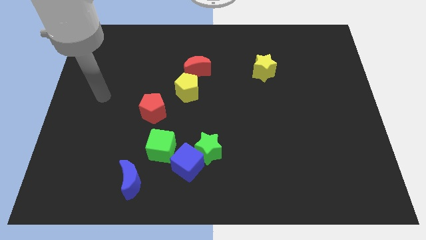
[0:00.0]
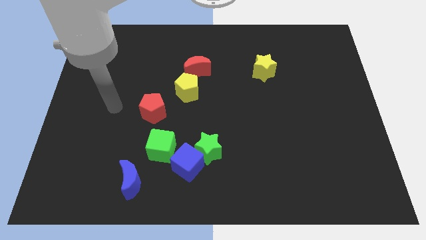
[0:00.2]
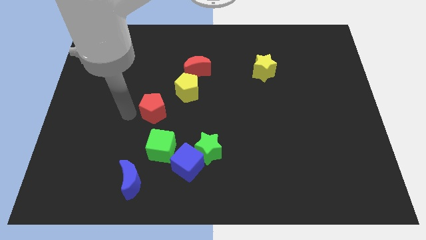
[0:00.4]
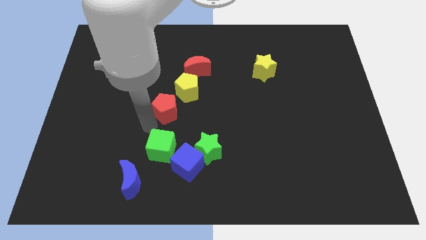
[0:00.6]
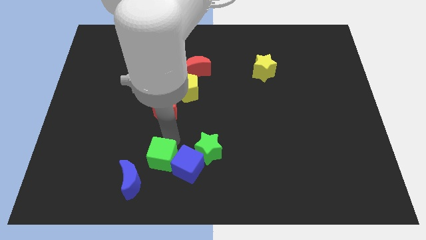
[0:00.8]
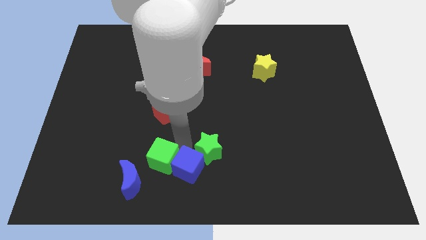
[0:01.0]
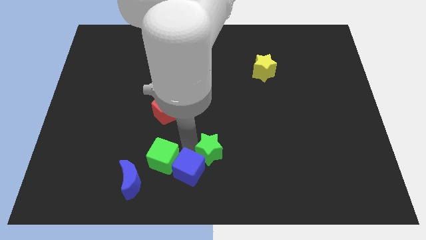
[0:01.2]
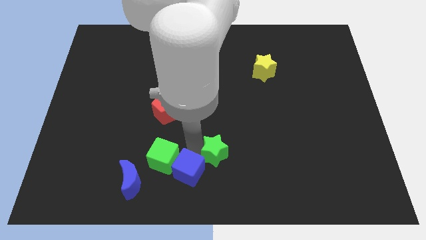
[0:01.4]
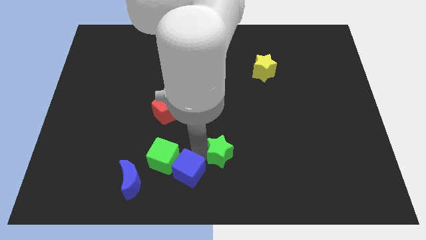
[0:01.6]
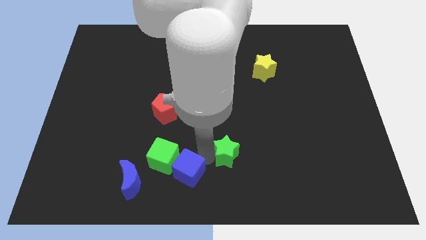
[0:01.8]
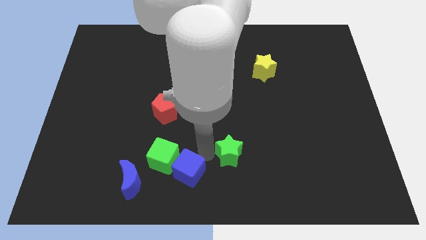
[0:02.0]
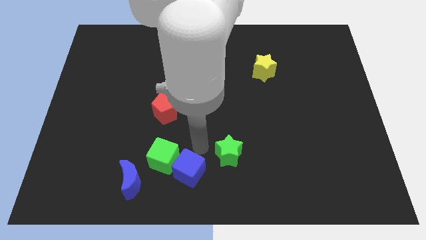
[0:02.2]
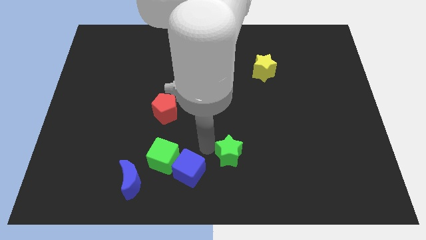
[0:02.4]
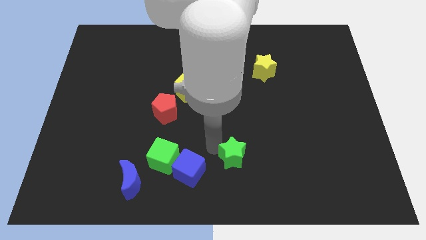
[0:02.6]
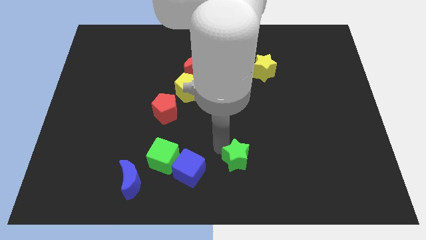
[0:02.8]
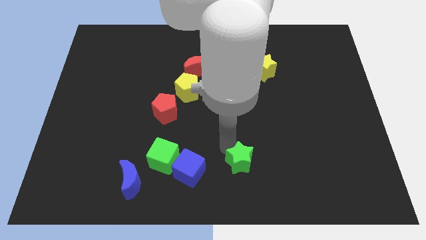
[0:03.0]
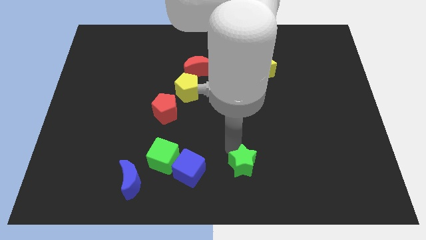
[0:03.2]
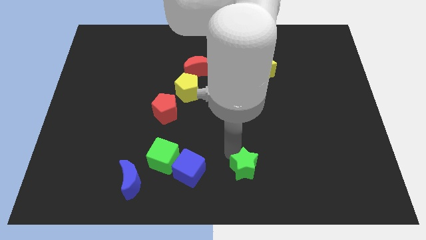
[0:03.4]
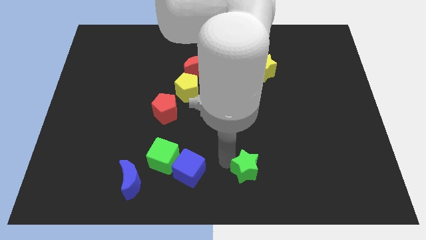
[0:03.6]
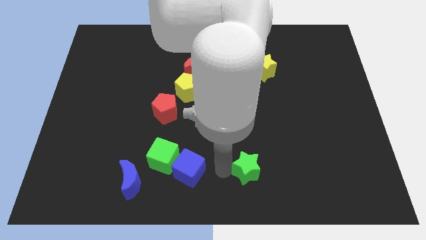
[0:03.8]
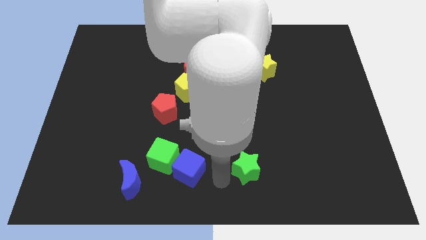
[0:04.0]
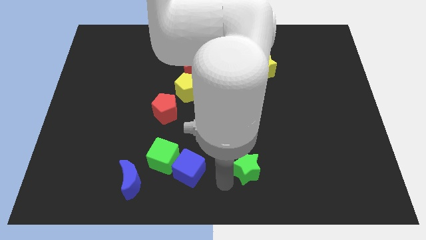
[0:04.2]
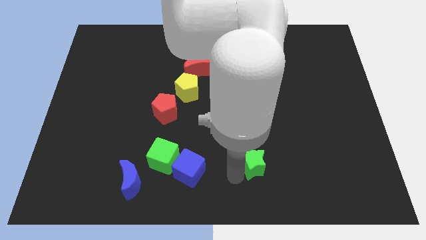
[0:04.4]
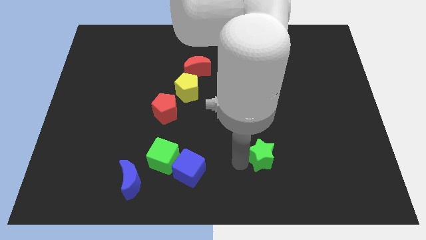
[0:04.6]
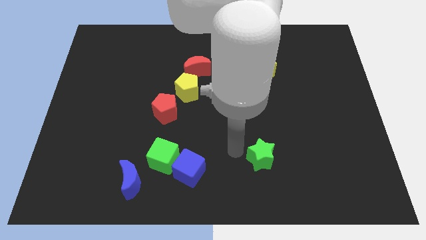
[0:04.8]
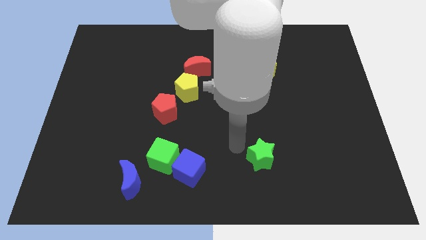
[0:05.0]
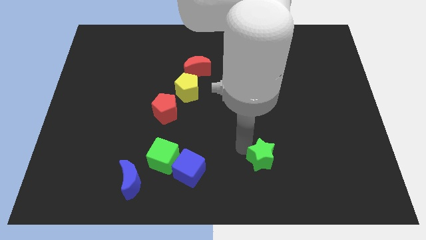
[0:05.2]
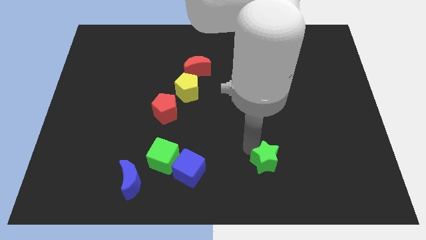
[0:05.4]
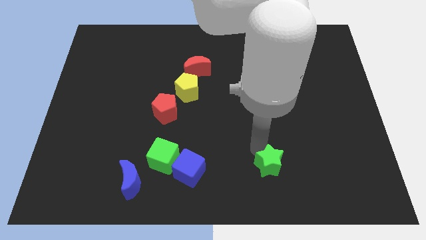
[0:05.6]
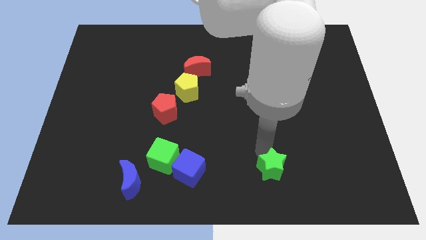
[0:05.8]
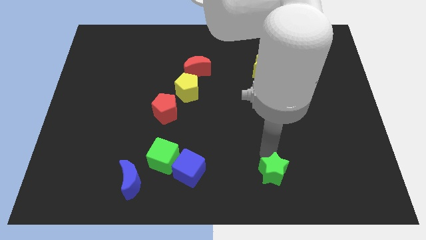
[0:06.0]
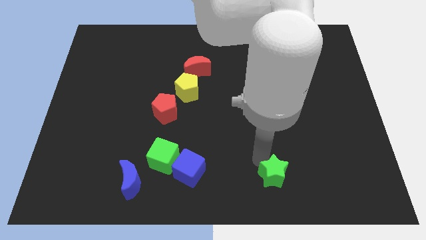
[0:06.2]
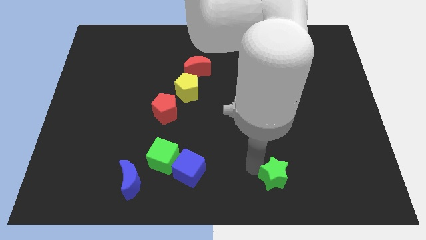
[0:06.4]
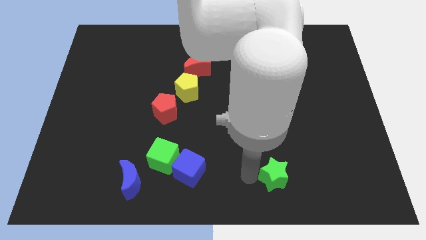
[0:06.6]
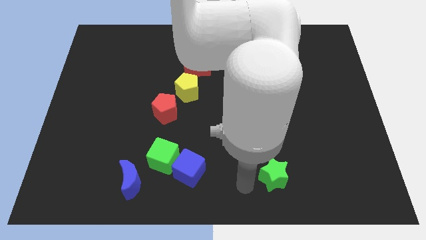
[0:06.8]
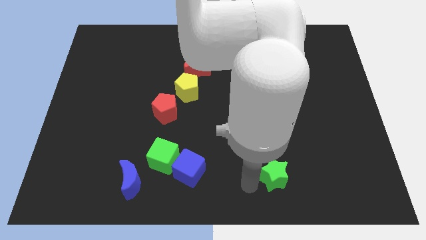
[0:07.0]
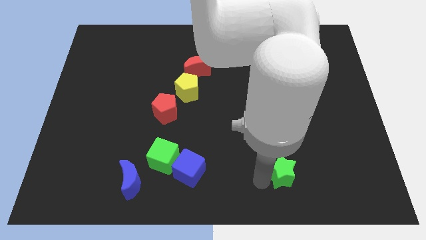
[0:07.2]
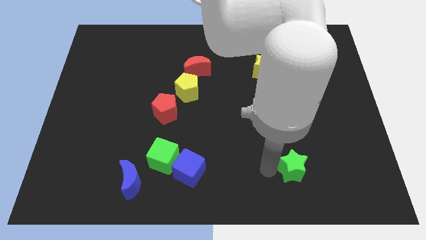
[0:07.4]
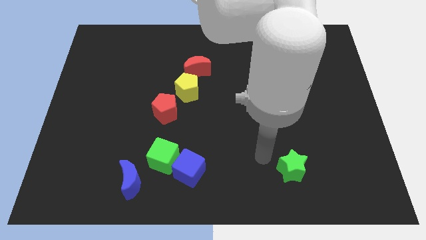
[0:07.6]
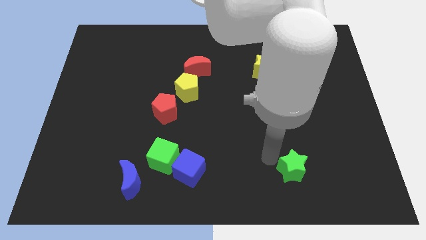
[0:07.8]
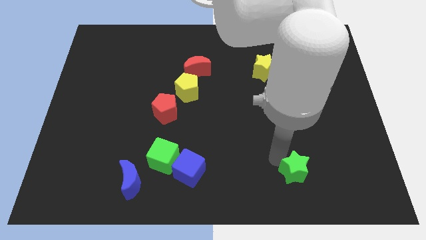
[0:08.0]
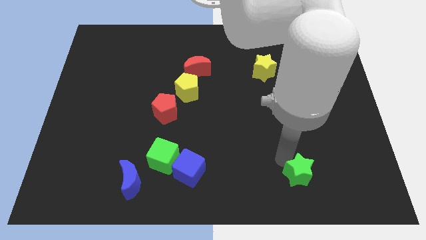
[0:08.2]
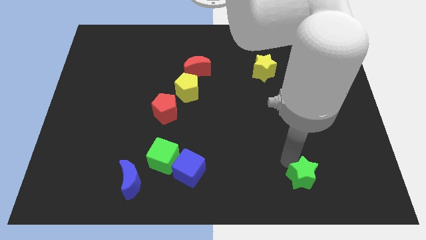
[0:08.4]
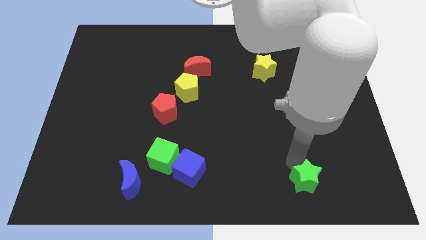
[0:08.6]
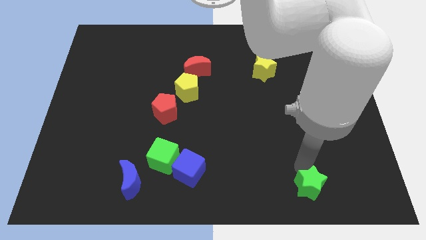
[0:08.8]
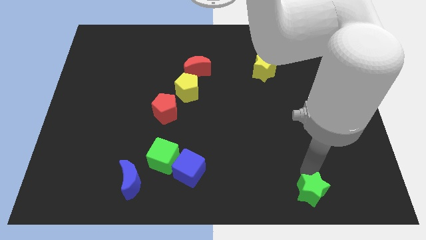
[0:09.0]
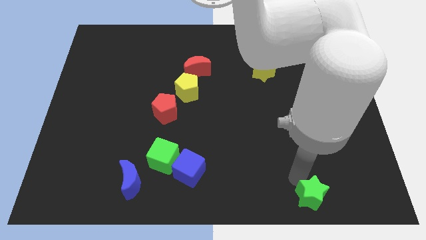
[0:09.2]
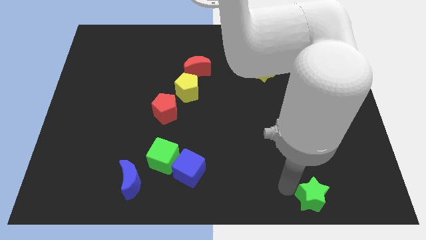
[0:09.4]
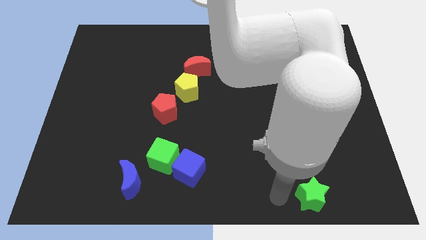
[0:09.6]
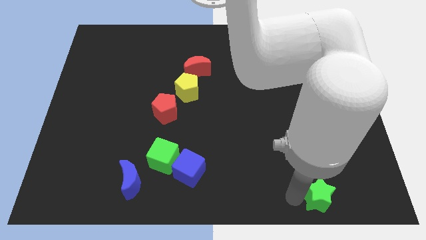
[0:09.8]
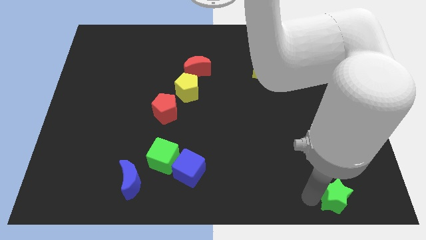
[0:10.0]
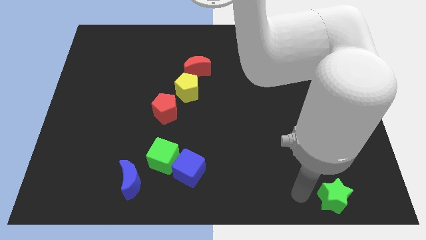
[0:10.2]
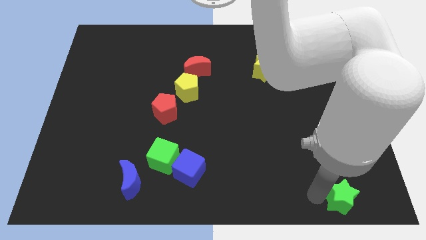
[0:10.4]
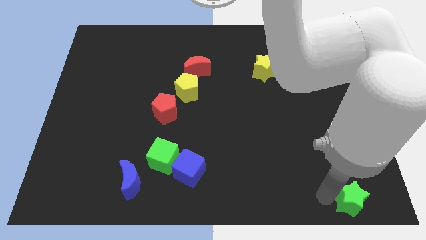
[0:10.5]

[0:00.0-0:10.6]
put the green star to the bottom right corner
